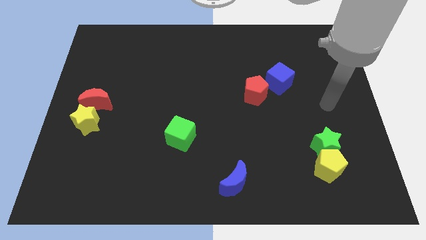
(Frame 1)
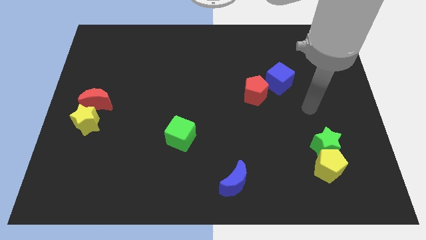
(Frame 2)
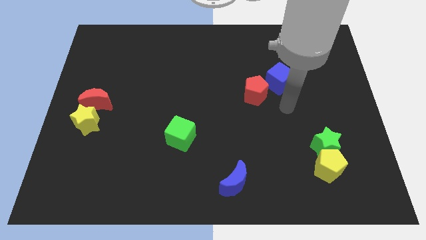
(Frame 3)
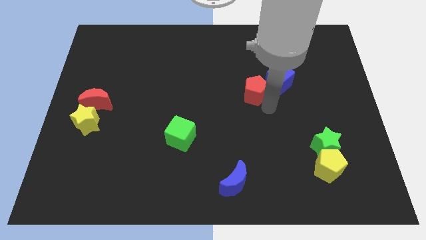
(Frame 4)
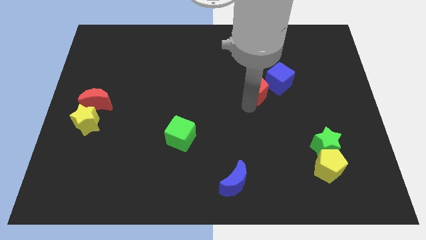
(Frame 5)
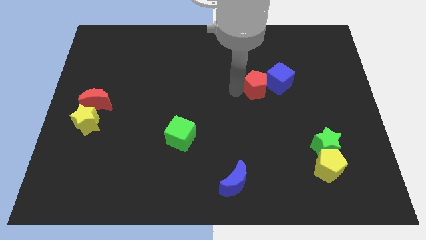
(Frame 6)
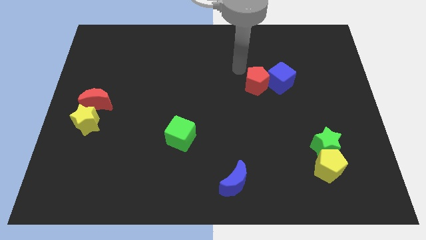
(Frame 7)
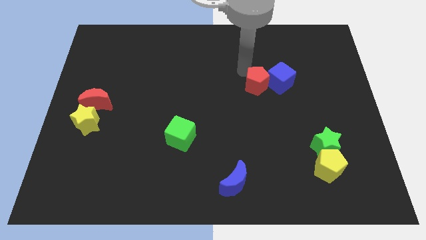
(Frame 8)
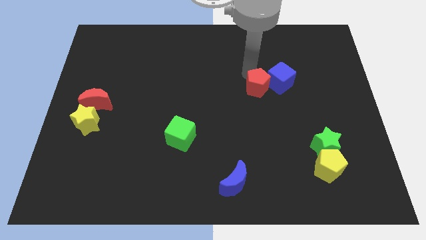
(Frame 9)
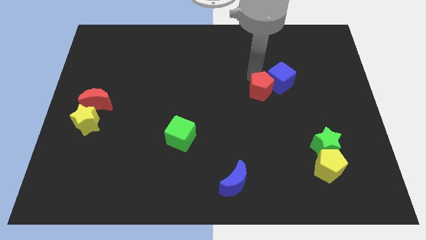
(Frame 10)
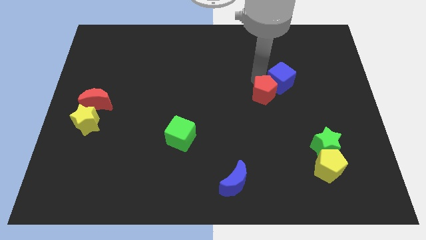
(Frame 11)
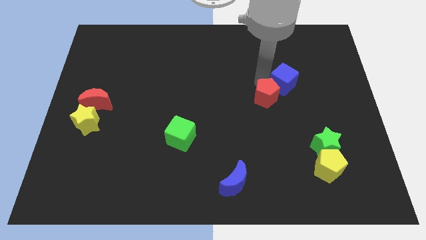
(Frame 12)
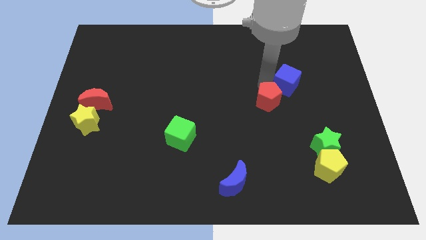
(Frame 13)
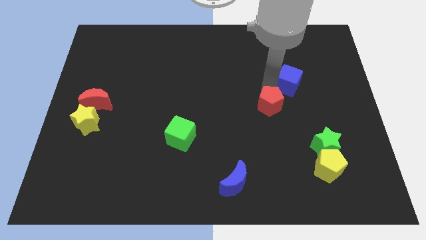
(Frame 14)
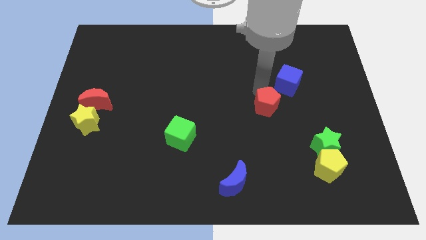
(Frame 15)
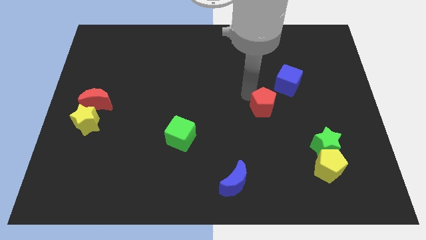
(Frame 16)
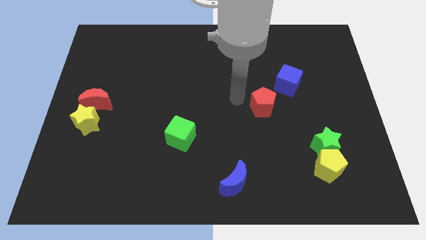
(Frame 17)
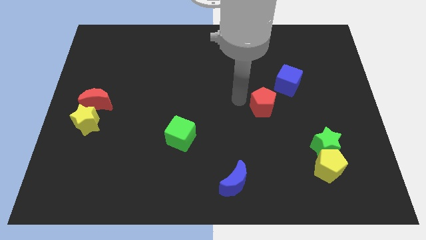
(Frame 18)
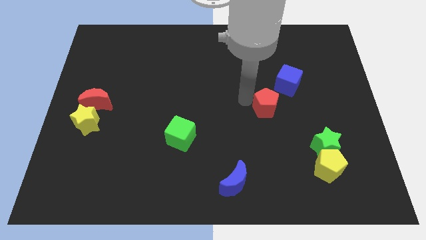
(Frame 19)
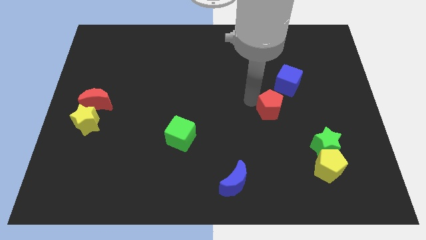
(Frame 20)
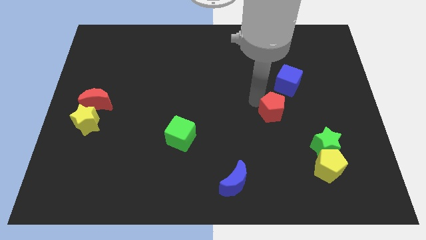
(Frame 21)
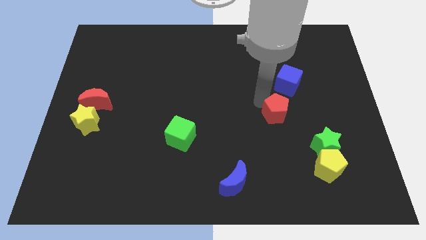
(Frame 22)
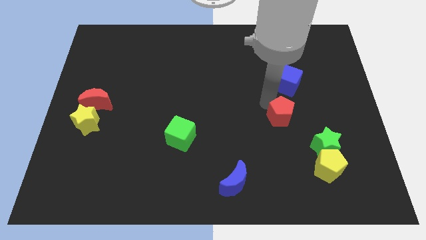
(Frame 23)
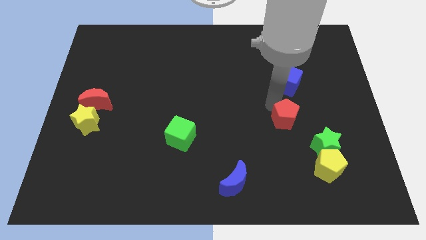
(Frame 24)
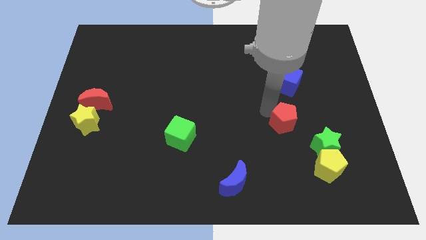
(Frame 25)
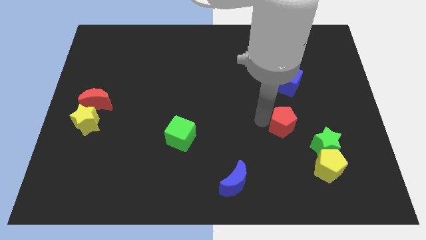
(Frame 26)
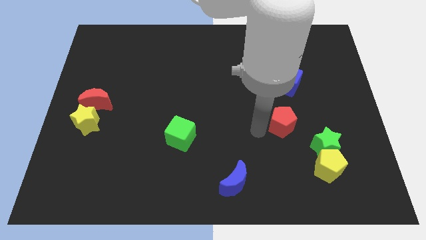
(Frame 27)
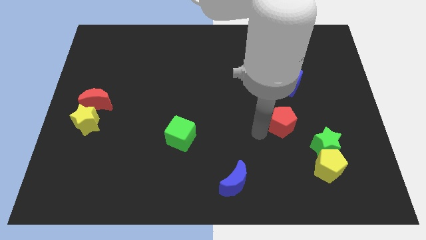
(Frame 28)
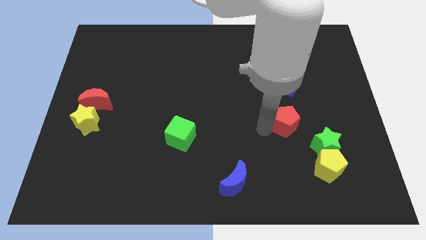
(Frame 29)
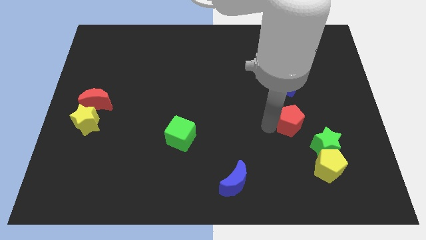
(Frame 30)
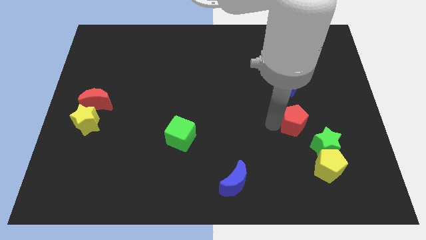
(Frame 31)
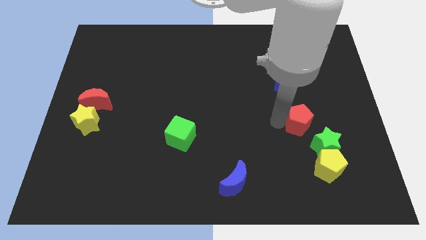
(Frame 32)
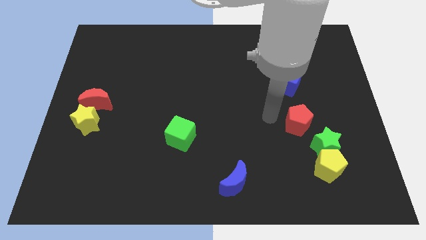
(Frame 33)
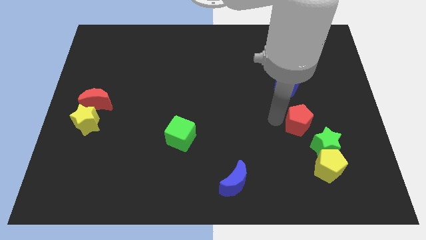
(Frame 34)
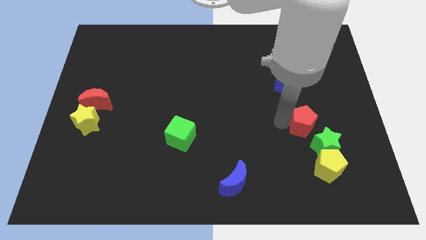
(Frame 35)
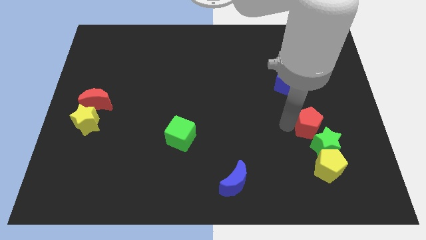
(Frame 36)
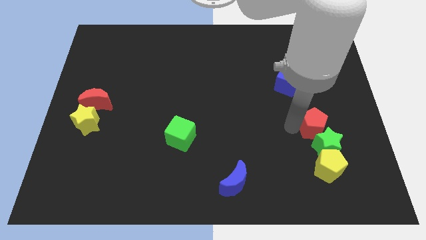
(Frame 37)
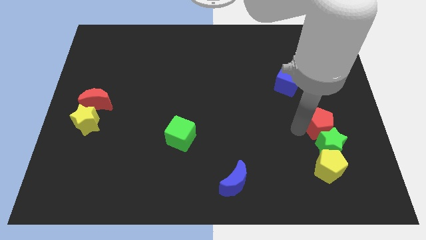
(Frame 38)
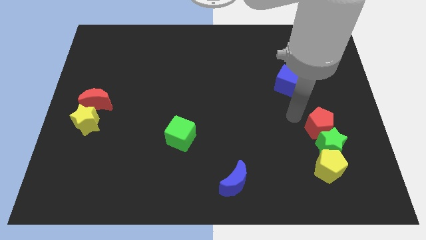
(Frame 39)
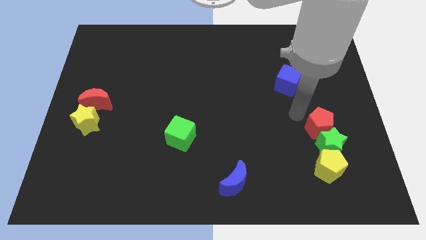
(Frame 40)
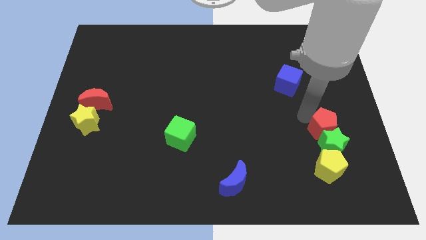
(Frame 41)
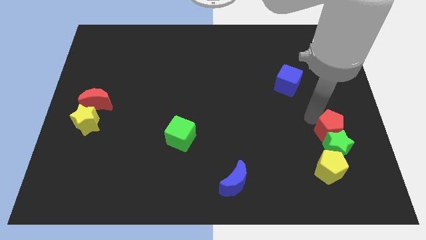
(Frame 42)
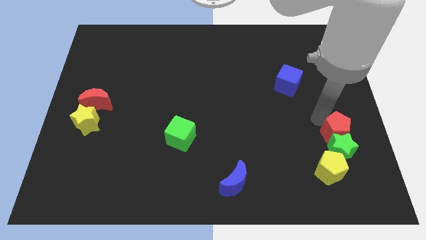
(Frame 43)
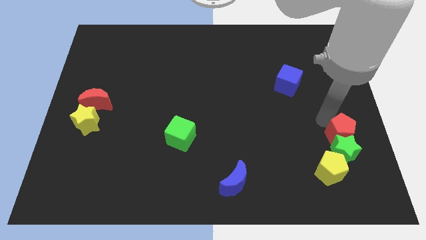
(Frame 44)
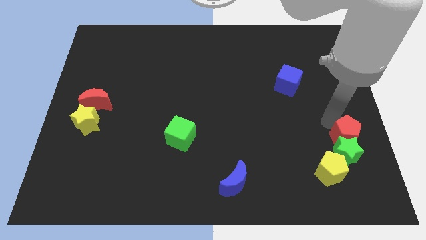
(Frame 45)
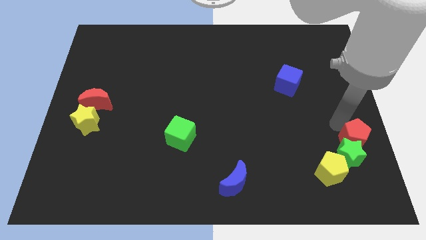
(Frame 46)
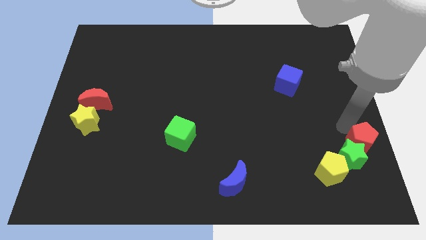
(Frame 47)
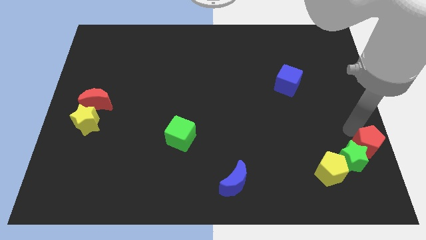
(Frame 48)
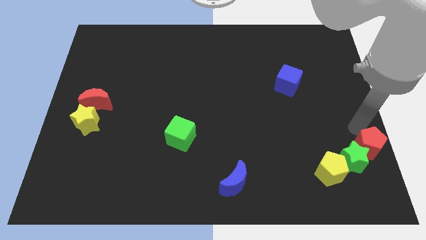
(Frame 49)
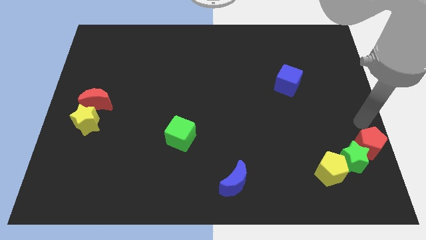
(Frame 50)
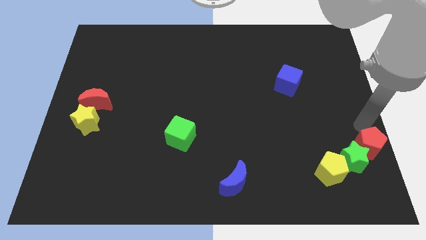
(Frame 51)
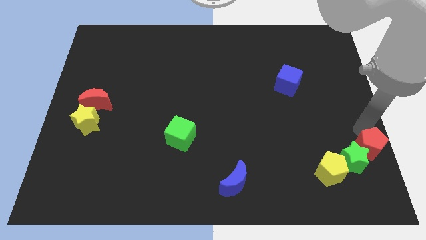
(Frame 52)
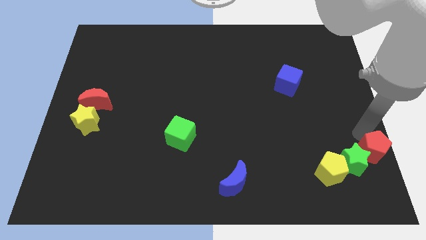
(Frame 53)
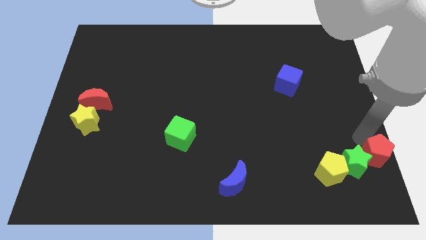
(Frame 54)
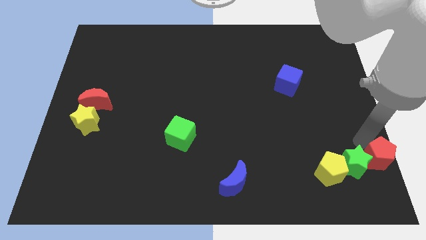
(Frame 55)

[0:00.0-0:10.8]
move the red pentagon to the bottom right corner

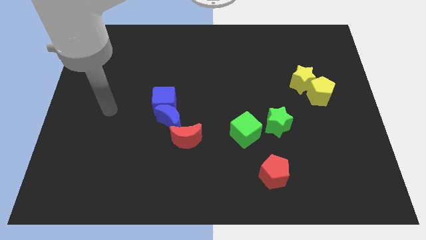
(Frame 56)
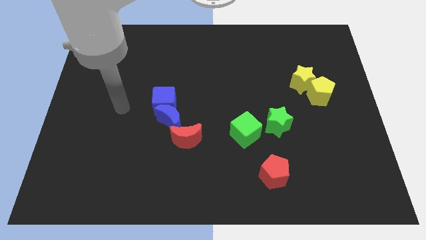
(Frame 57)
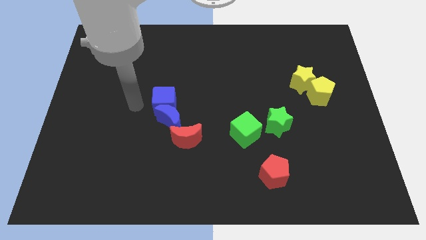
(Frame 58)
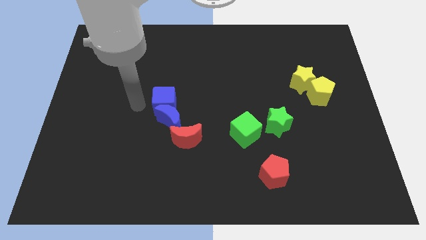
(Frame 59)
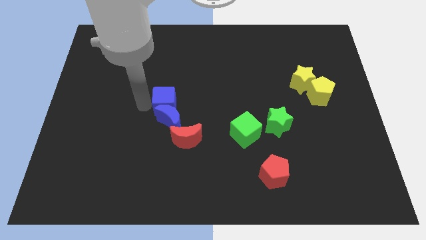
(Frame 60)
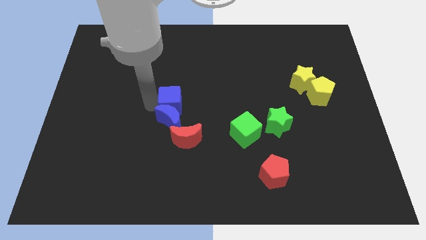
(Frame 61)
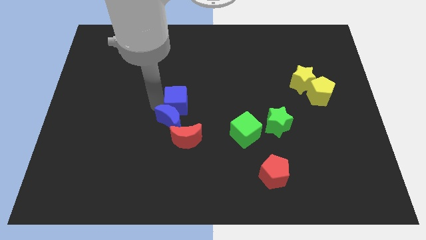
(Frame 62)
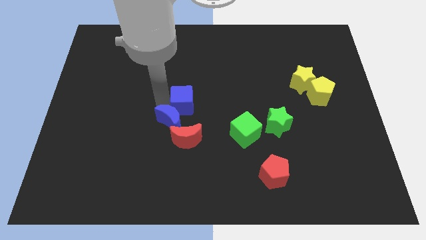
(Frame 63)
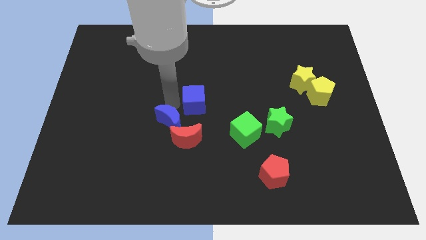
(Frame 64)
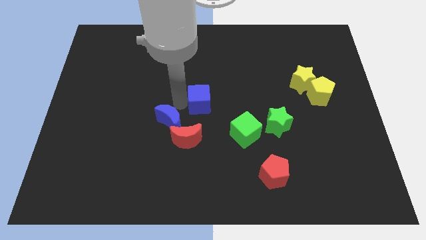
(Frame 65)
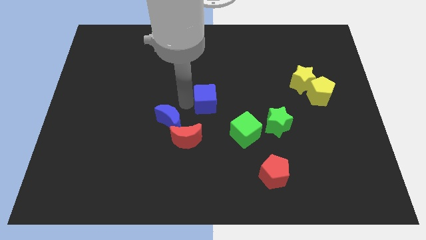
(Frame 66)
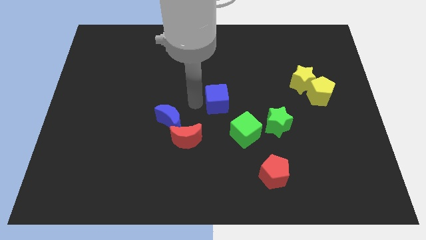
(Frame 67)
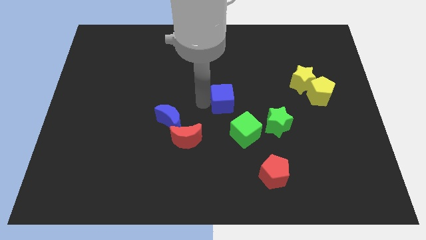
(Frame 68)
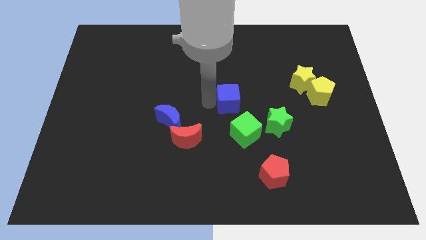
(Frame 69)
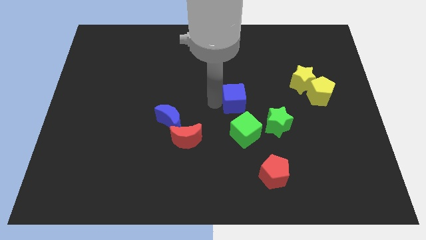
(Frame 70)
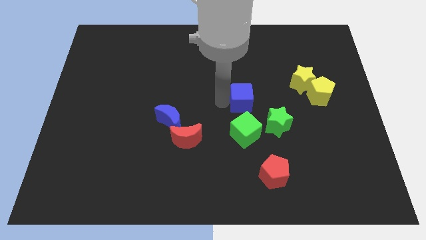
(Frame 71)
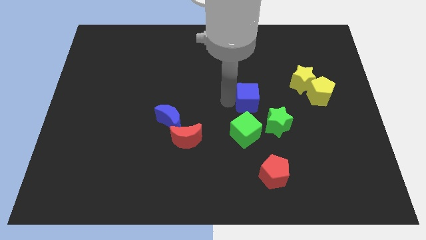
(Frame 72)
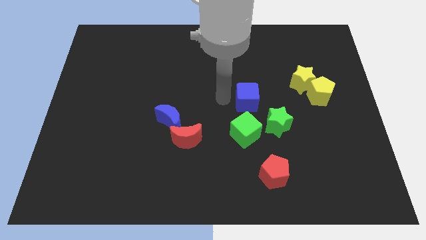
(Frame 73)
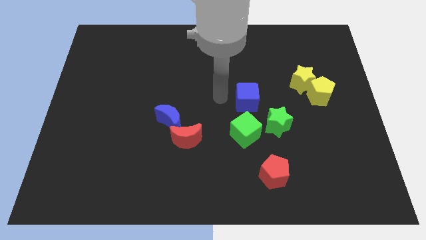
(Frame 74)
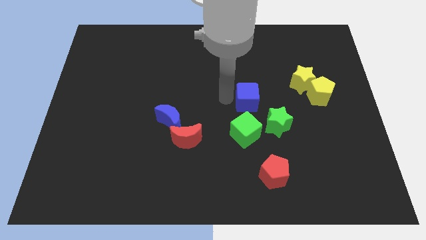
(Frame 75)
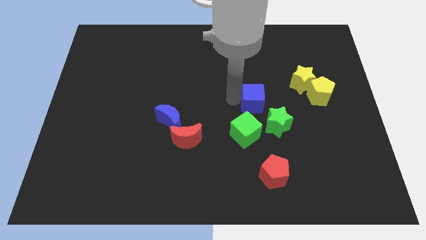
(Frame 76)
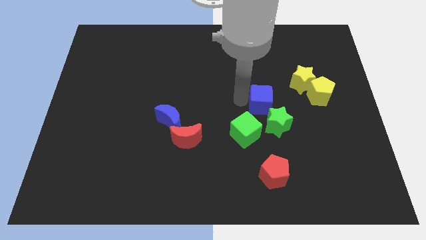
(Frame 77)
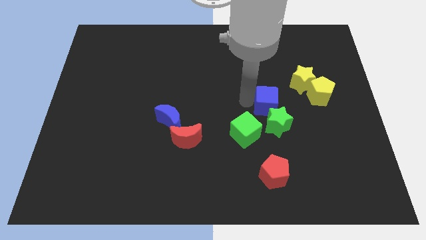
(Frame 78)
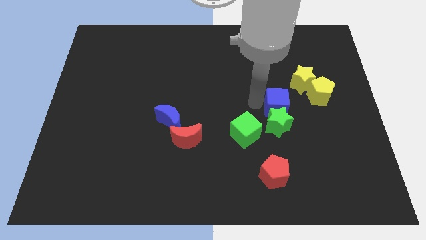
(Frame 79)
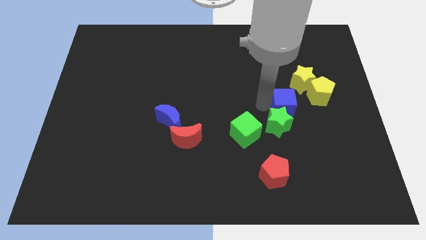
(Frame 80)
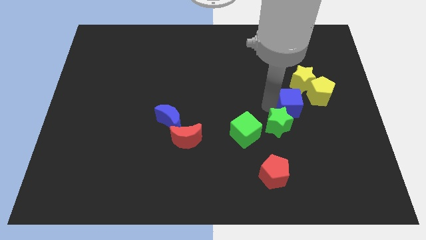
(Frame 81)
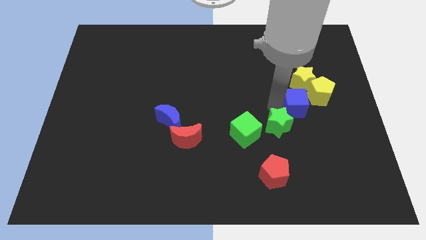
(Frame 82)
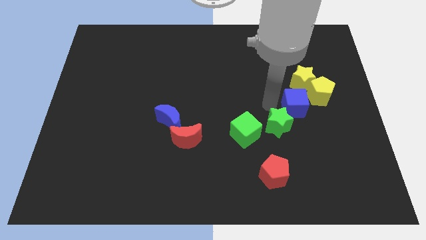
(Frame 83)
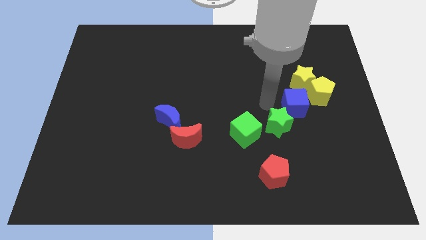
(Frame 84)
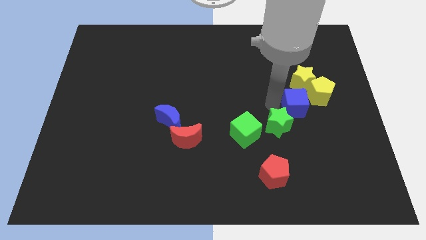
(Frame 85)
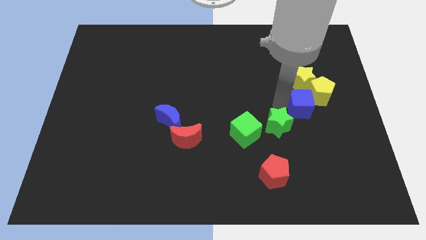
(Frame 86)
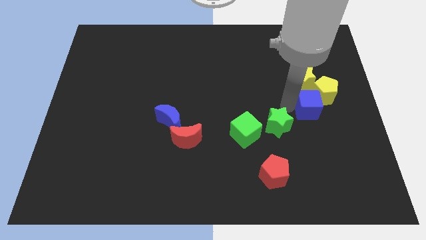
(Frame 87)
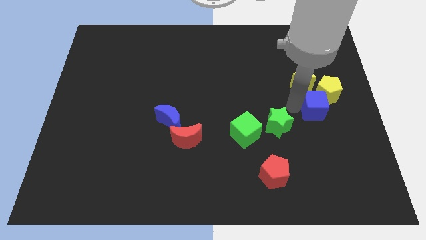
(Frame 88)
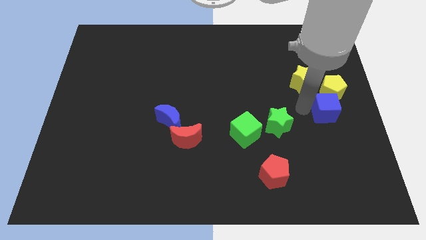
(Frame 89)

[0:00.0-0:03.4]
move the blue cube to the right side
